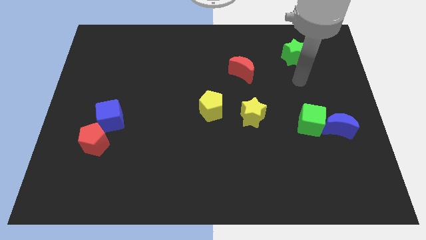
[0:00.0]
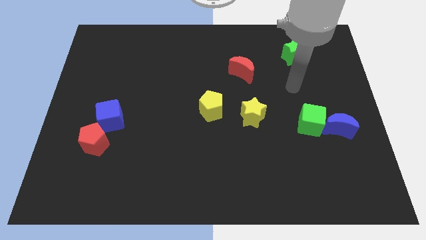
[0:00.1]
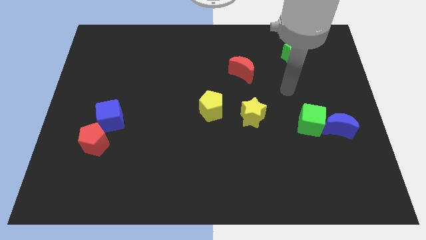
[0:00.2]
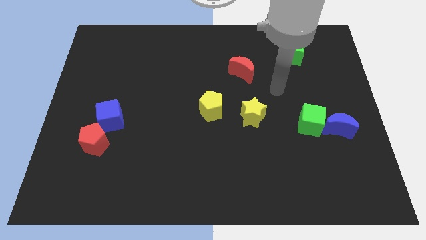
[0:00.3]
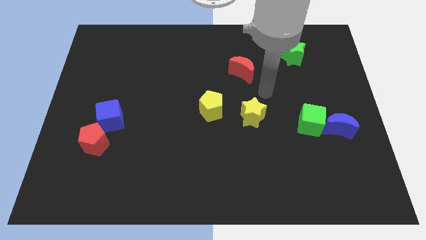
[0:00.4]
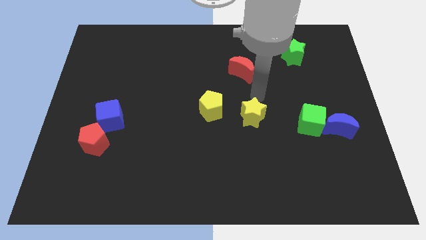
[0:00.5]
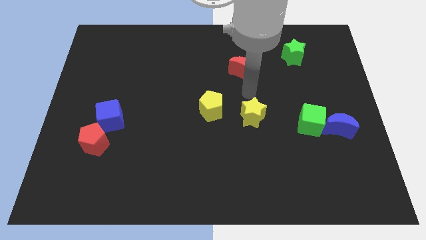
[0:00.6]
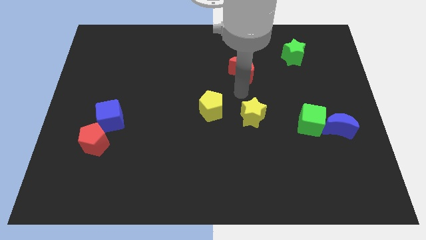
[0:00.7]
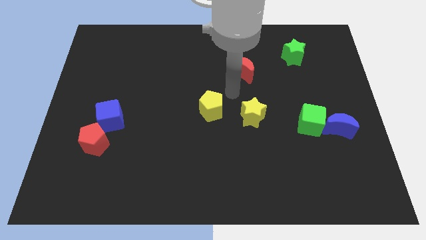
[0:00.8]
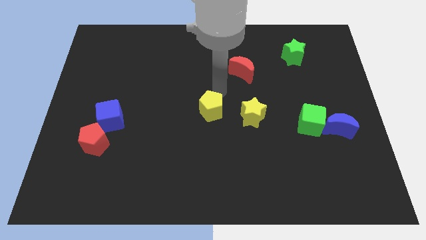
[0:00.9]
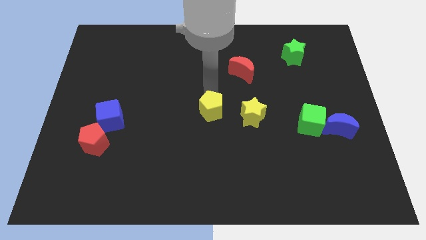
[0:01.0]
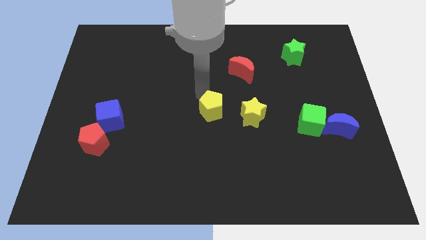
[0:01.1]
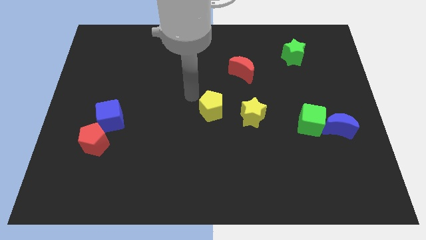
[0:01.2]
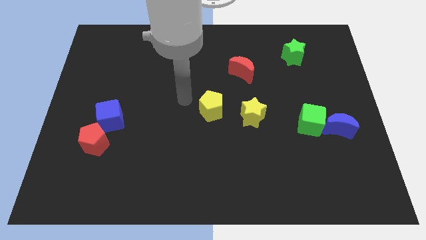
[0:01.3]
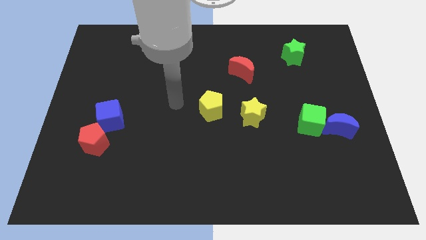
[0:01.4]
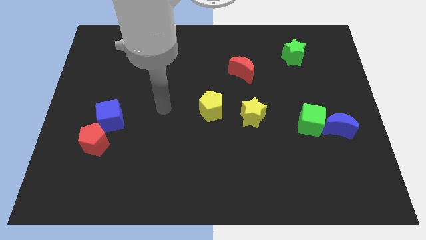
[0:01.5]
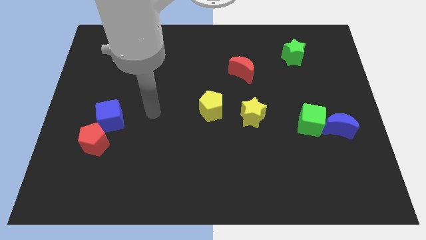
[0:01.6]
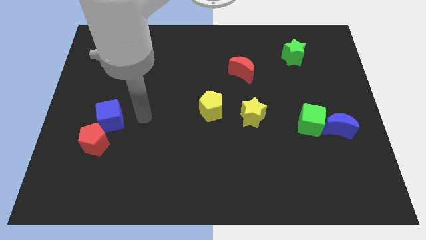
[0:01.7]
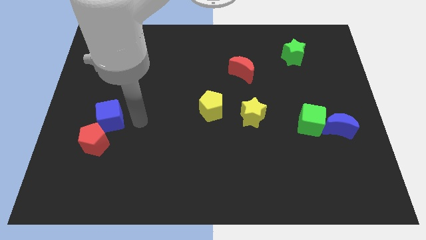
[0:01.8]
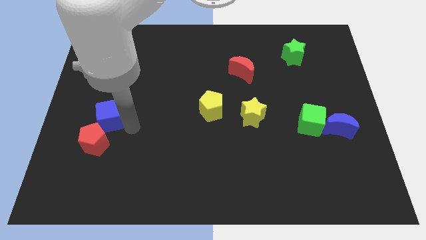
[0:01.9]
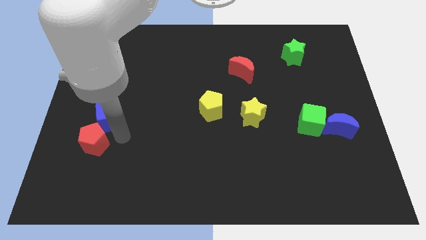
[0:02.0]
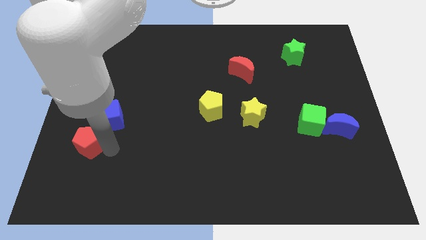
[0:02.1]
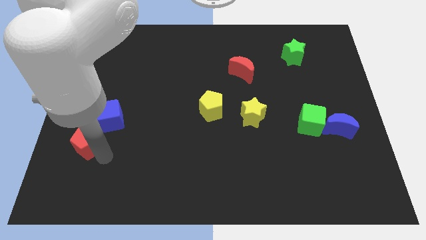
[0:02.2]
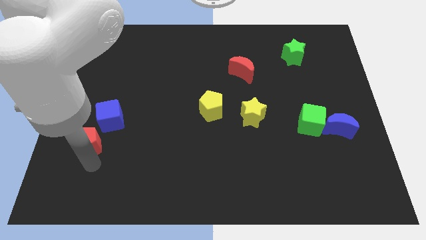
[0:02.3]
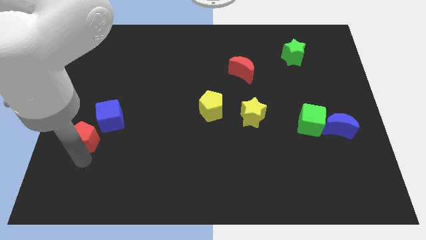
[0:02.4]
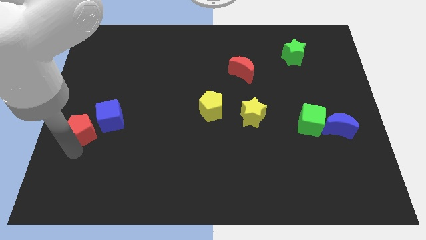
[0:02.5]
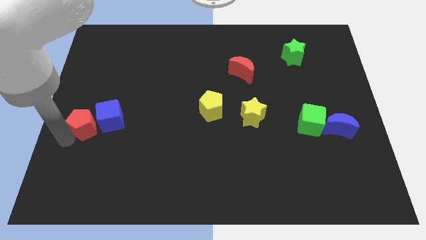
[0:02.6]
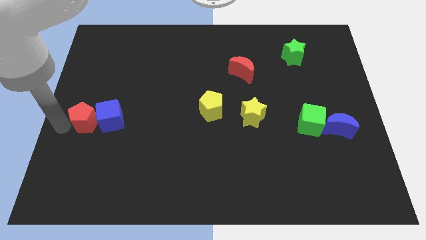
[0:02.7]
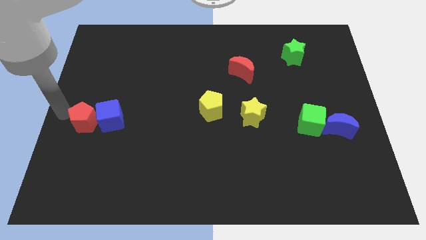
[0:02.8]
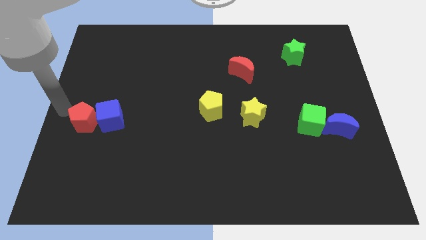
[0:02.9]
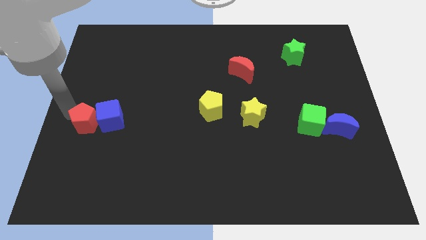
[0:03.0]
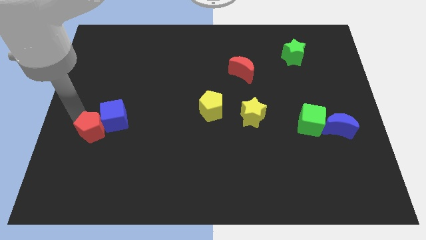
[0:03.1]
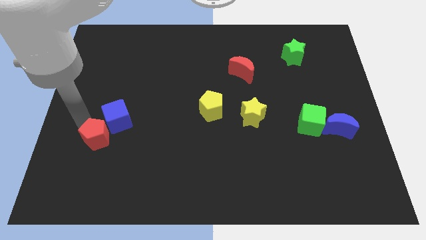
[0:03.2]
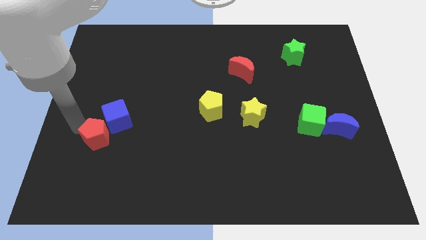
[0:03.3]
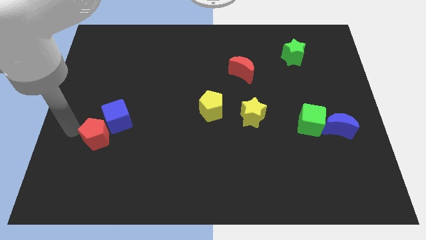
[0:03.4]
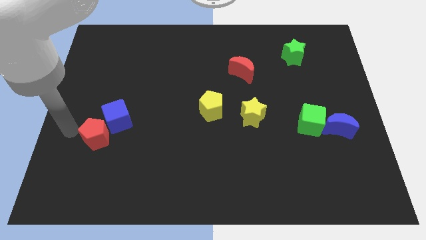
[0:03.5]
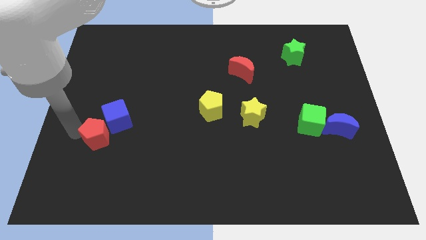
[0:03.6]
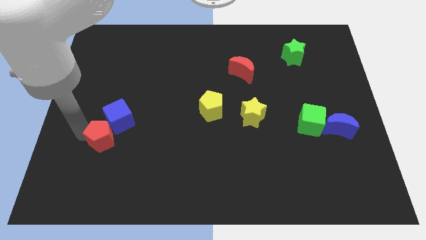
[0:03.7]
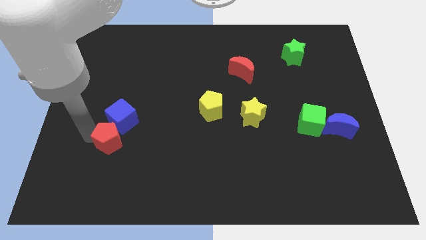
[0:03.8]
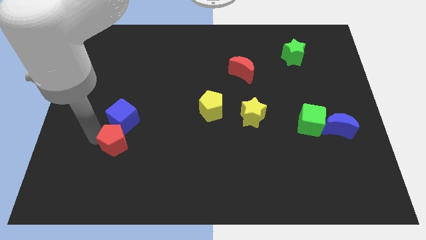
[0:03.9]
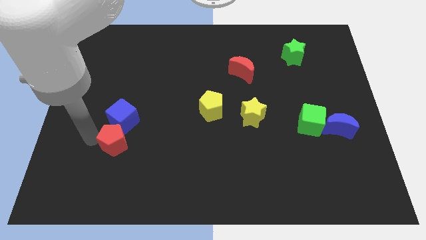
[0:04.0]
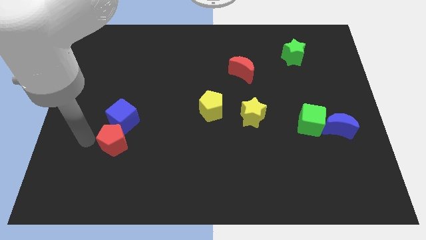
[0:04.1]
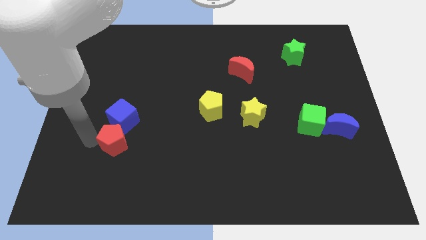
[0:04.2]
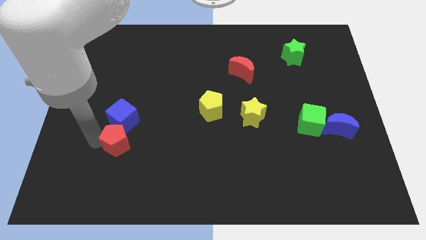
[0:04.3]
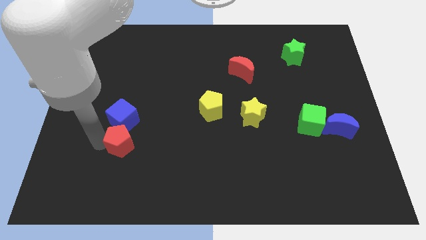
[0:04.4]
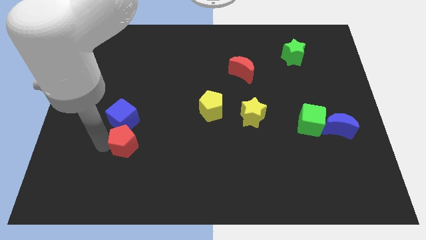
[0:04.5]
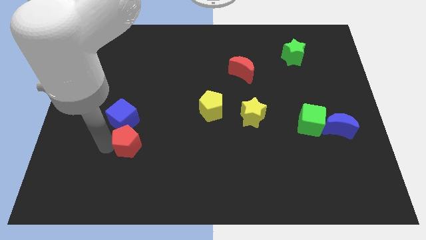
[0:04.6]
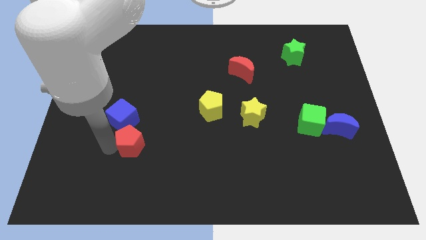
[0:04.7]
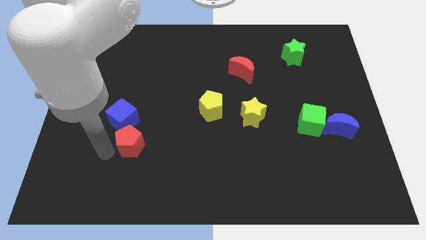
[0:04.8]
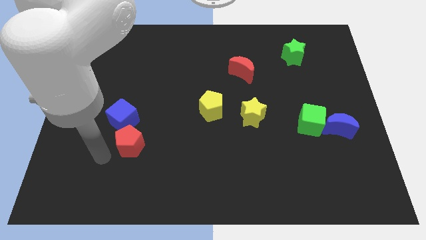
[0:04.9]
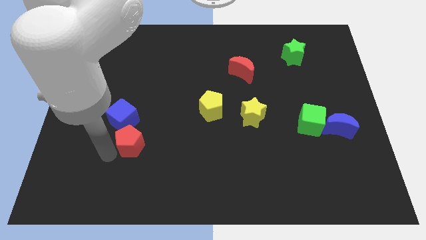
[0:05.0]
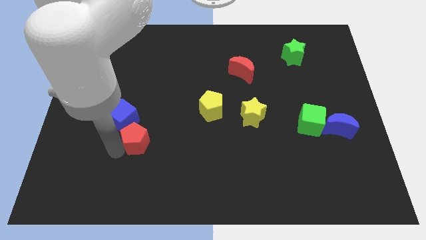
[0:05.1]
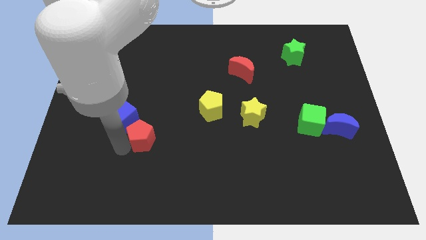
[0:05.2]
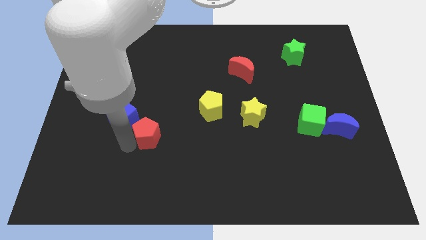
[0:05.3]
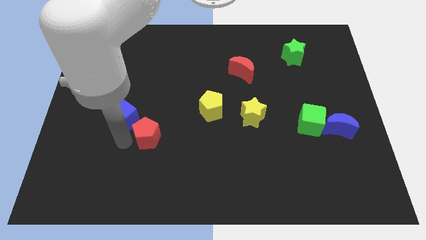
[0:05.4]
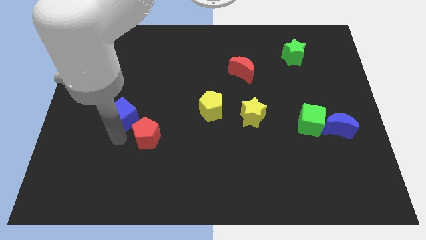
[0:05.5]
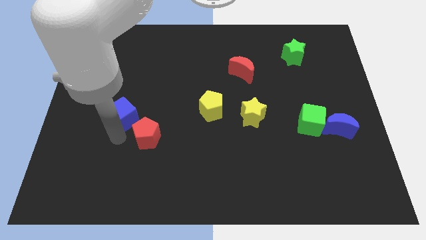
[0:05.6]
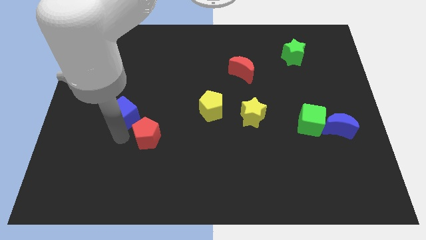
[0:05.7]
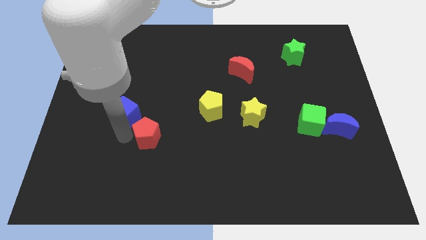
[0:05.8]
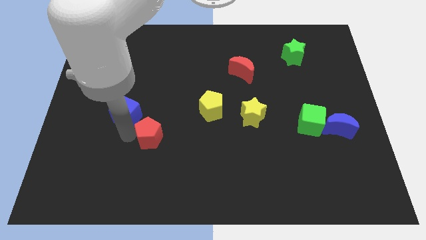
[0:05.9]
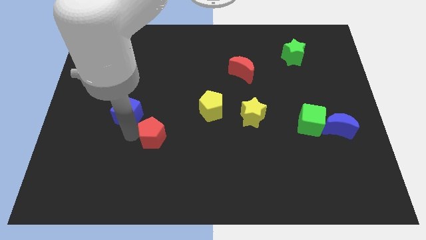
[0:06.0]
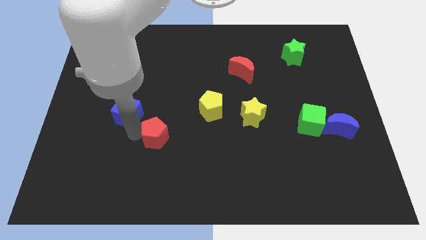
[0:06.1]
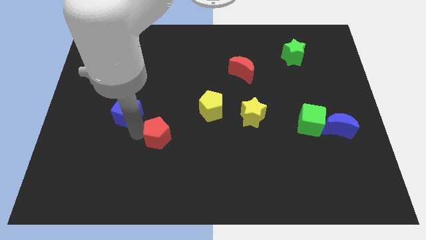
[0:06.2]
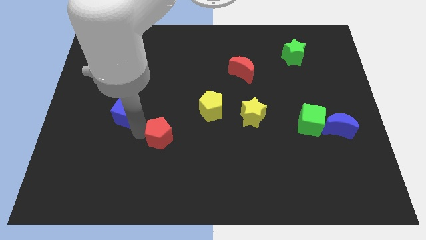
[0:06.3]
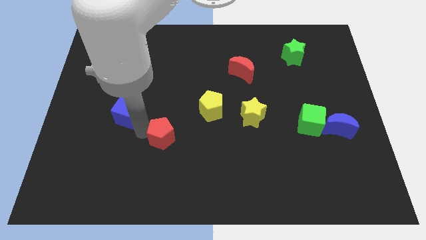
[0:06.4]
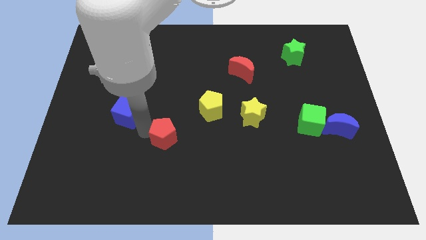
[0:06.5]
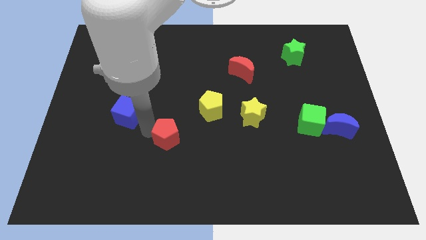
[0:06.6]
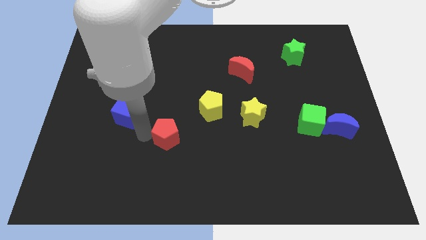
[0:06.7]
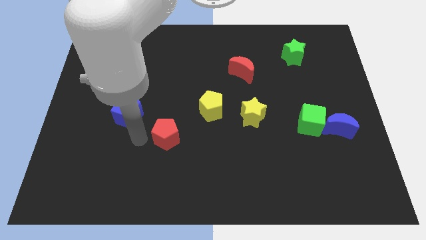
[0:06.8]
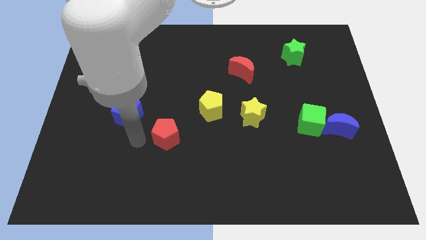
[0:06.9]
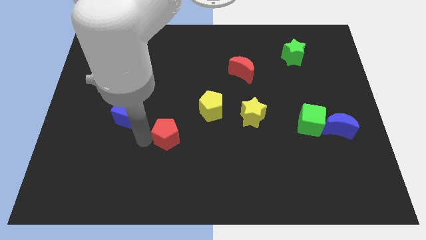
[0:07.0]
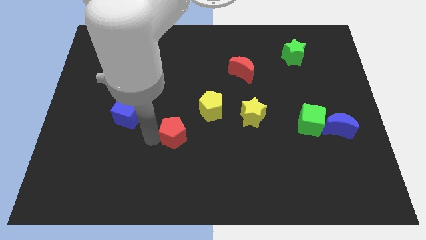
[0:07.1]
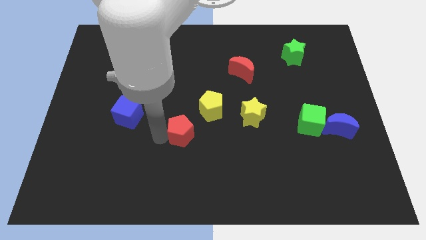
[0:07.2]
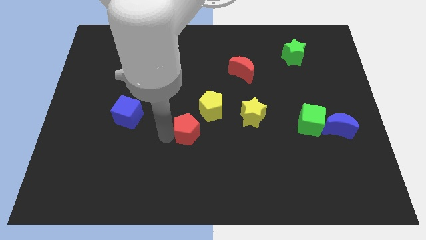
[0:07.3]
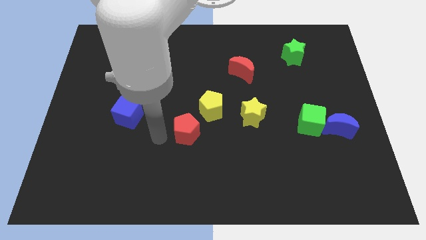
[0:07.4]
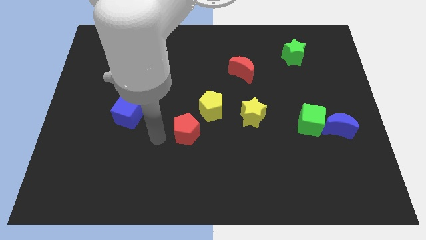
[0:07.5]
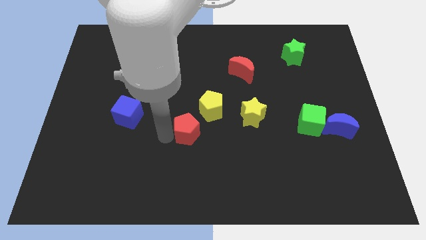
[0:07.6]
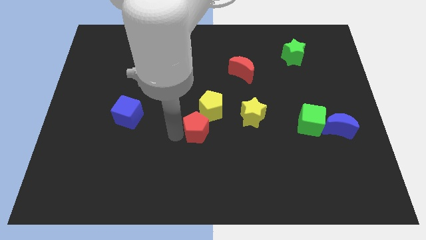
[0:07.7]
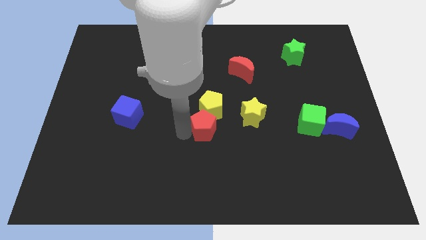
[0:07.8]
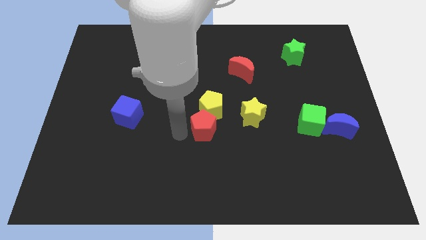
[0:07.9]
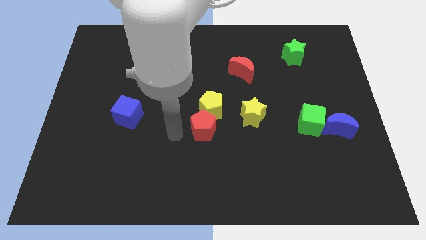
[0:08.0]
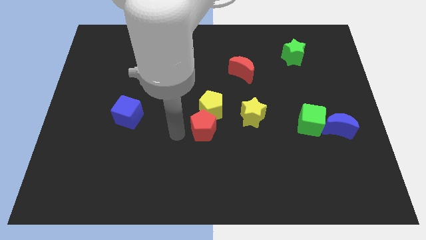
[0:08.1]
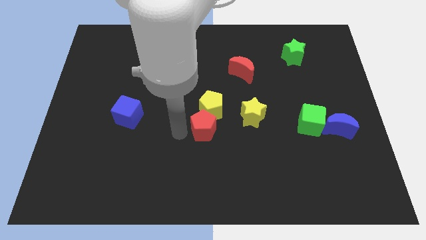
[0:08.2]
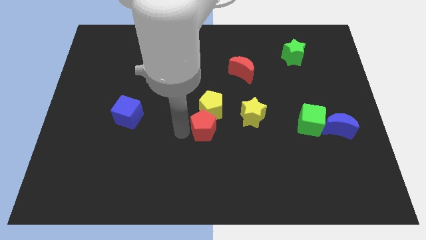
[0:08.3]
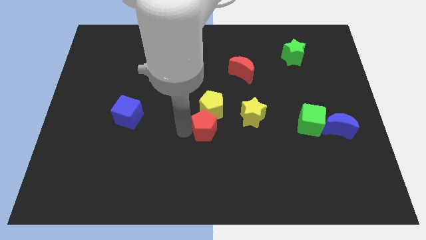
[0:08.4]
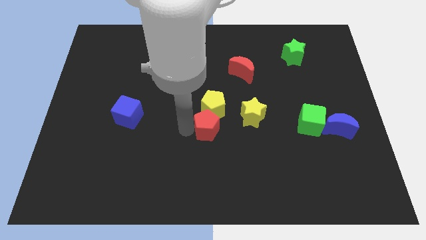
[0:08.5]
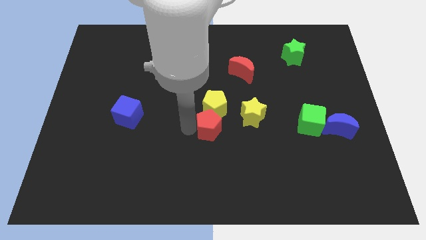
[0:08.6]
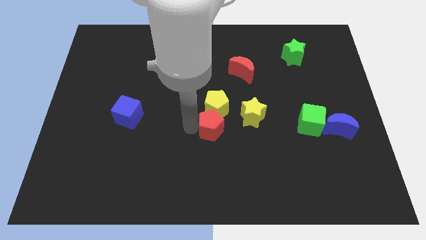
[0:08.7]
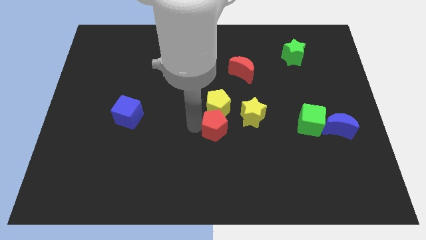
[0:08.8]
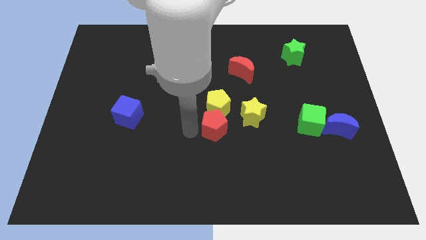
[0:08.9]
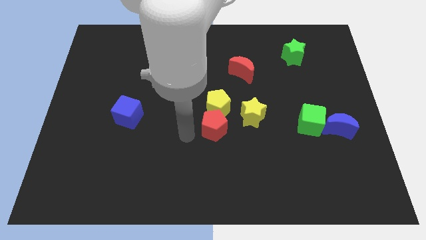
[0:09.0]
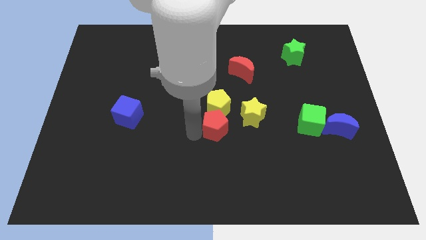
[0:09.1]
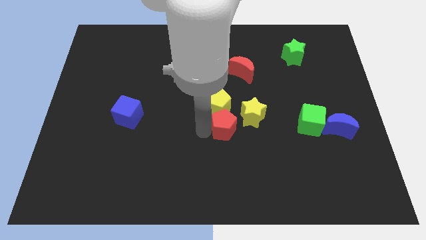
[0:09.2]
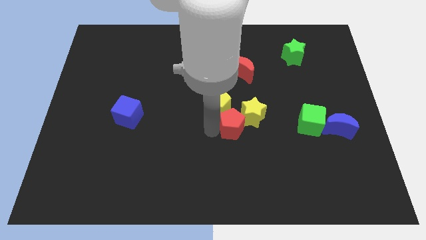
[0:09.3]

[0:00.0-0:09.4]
slide the red pentagon towards the yellow star
